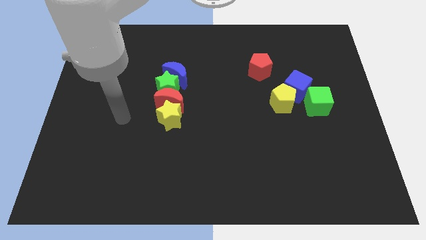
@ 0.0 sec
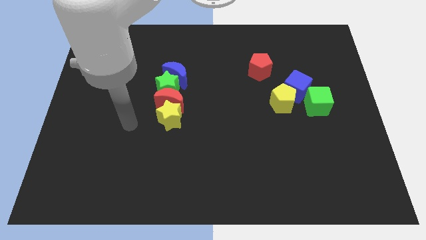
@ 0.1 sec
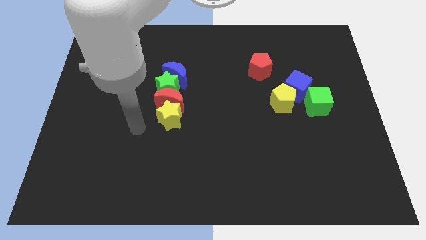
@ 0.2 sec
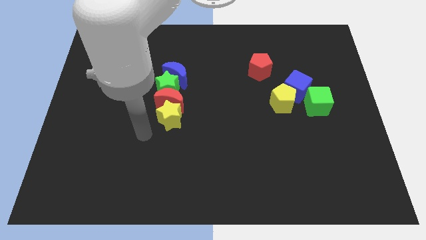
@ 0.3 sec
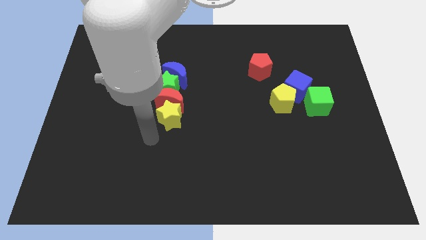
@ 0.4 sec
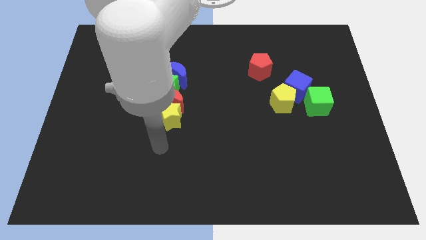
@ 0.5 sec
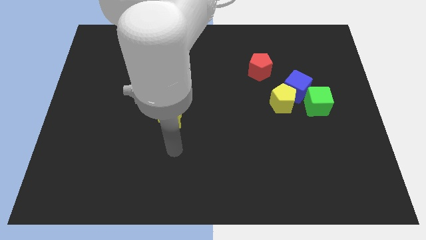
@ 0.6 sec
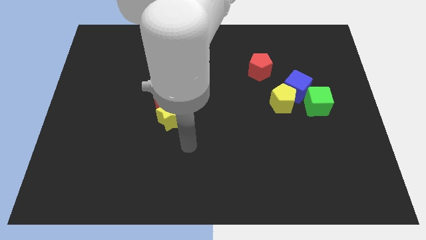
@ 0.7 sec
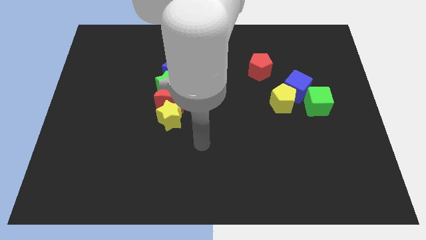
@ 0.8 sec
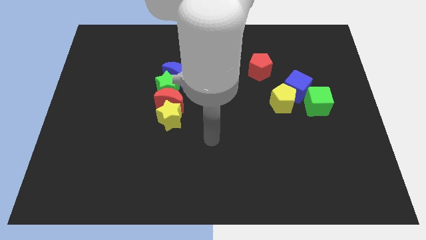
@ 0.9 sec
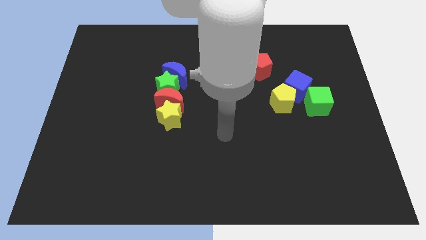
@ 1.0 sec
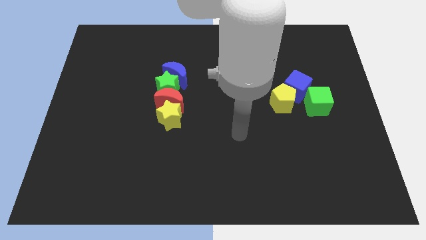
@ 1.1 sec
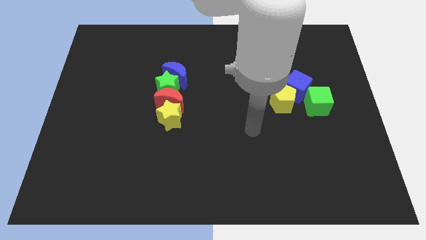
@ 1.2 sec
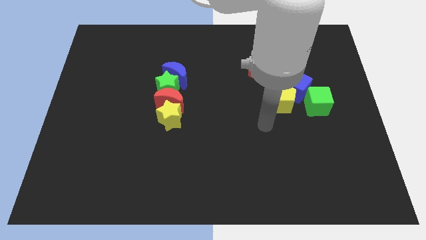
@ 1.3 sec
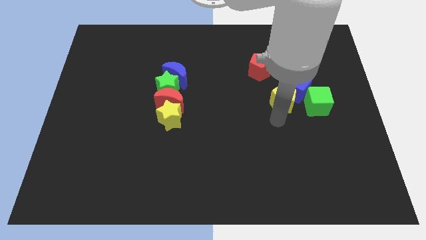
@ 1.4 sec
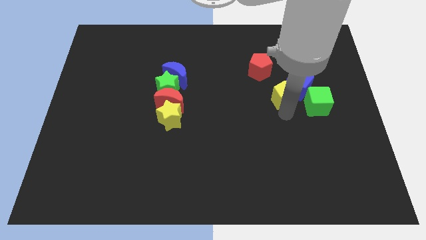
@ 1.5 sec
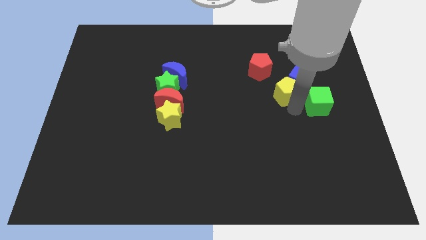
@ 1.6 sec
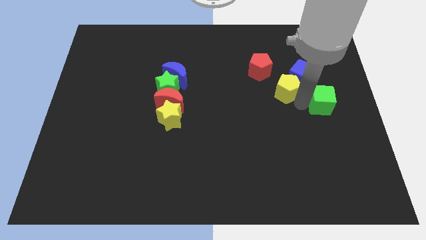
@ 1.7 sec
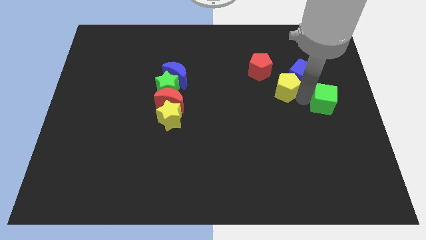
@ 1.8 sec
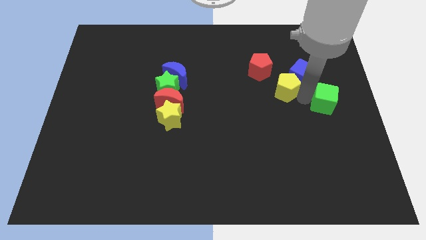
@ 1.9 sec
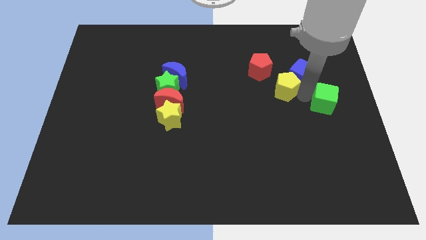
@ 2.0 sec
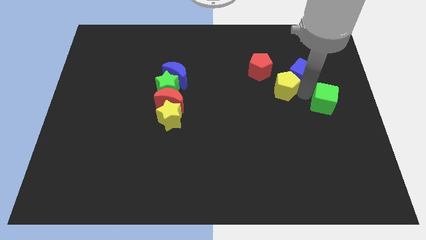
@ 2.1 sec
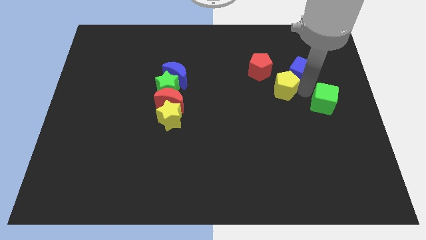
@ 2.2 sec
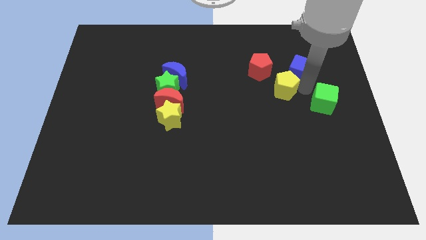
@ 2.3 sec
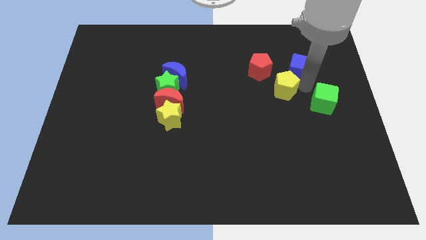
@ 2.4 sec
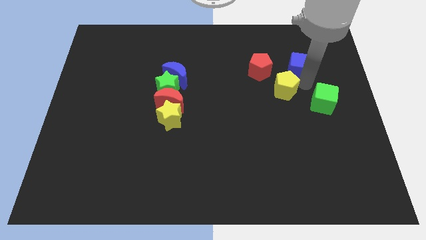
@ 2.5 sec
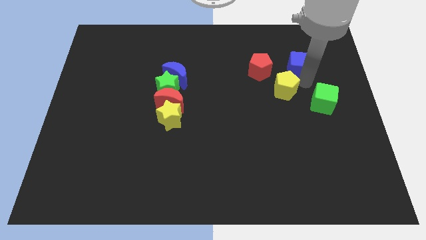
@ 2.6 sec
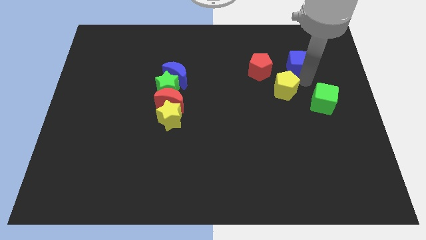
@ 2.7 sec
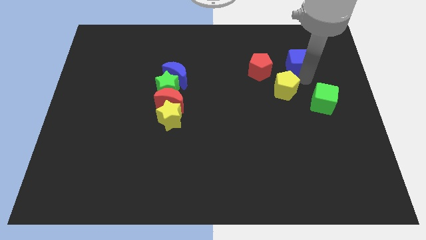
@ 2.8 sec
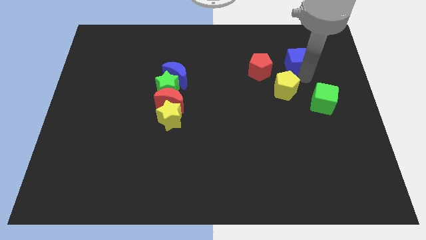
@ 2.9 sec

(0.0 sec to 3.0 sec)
move the blue cube away from the yellow pentagon and green cube

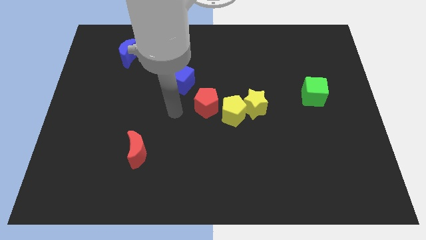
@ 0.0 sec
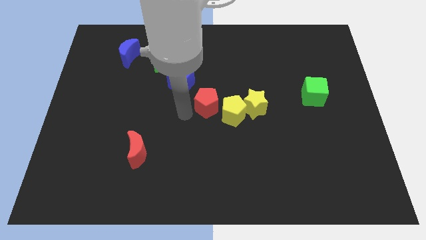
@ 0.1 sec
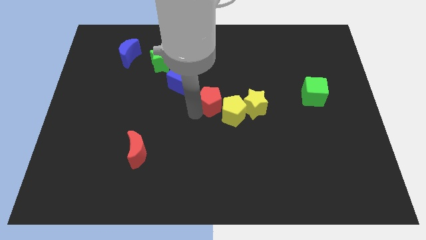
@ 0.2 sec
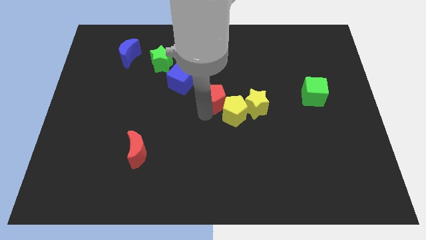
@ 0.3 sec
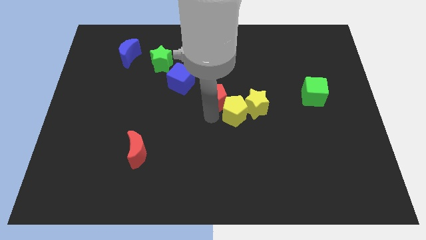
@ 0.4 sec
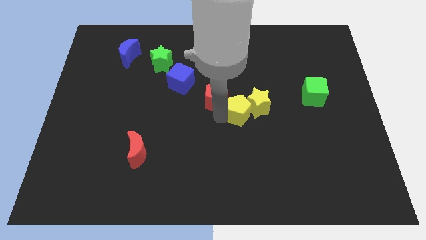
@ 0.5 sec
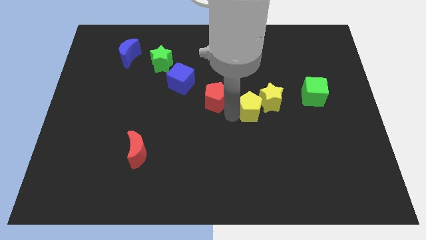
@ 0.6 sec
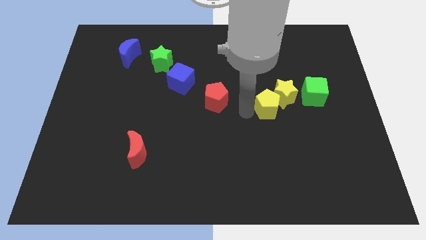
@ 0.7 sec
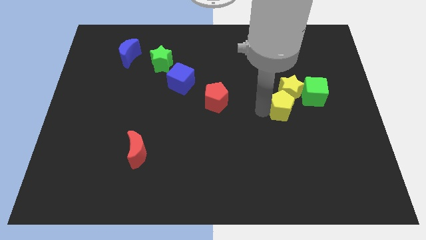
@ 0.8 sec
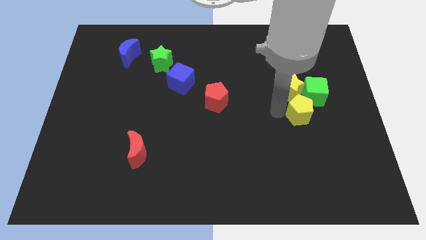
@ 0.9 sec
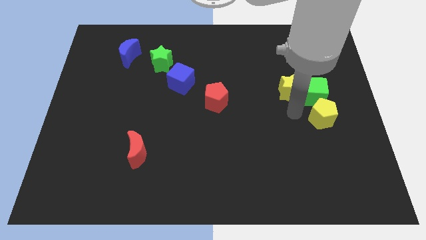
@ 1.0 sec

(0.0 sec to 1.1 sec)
separate the yellow star from the yellow pentagon

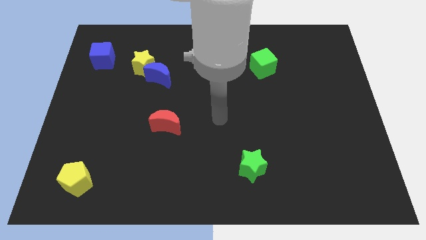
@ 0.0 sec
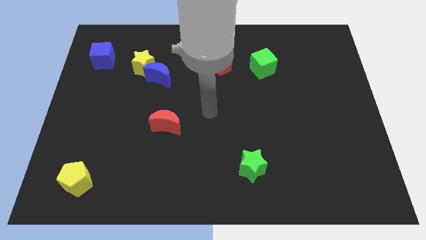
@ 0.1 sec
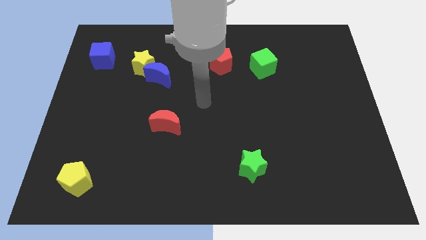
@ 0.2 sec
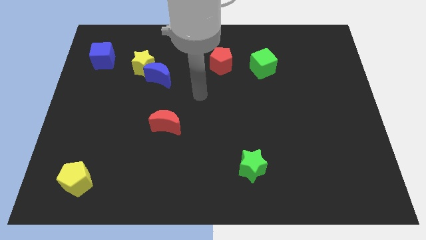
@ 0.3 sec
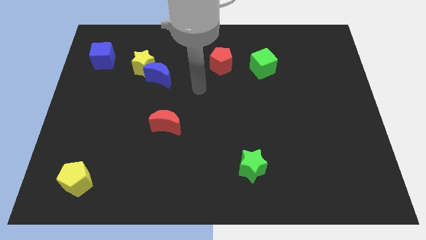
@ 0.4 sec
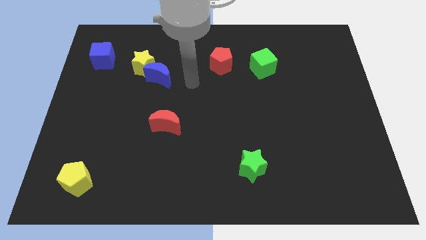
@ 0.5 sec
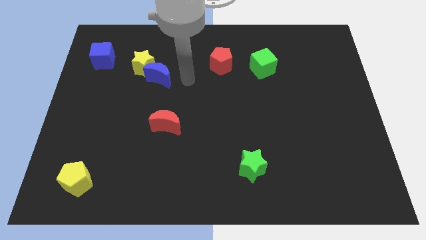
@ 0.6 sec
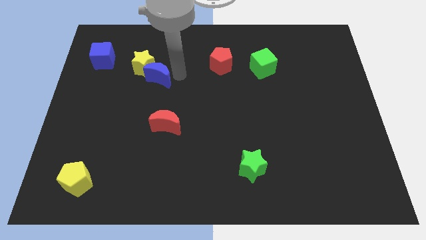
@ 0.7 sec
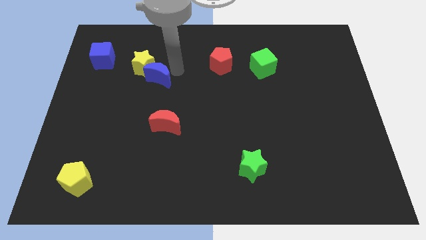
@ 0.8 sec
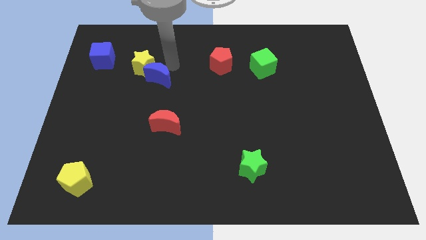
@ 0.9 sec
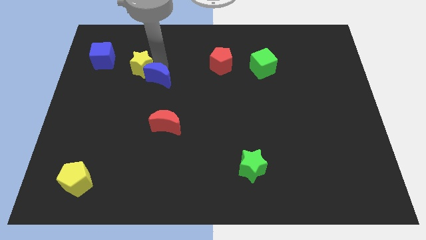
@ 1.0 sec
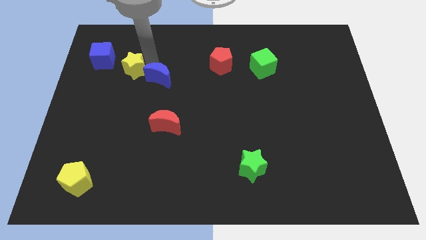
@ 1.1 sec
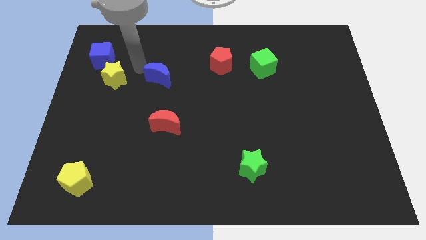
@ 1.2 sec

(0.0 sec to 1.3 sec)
separate the blue moon from the yellow star

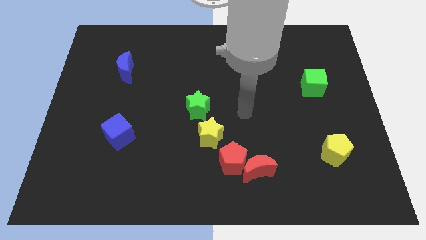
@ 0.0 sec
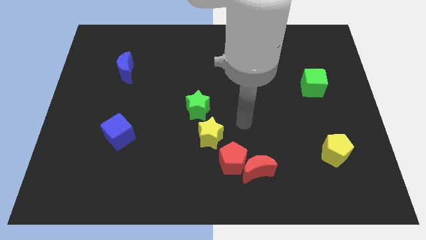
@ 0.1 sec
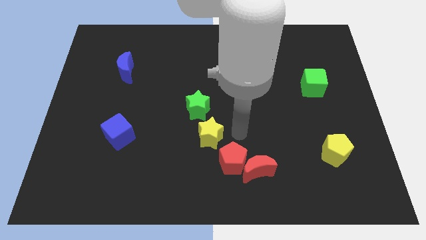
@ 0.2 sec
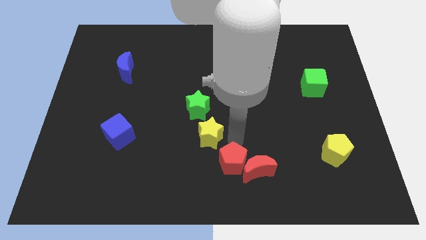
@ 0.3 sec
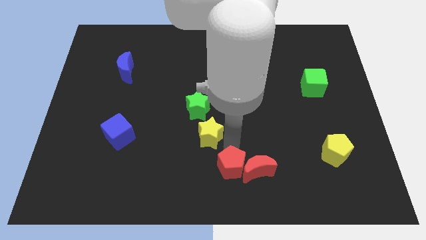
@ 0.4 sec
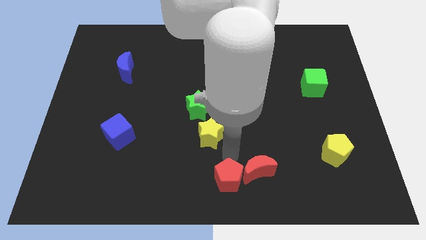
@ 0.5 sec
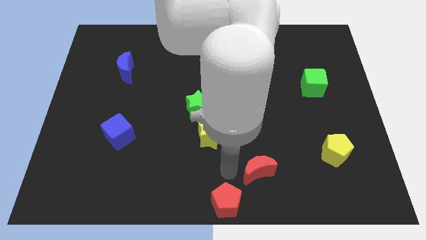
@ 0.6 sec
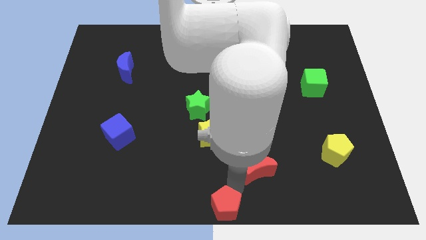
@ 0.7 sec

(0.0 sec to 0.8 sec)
move the red moon away from the red pentagon

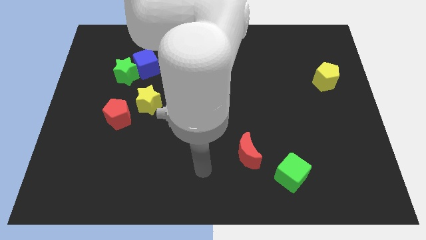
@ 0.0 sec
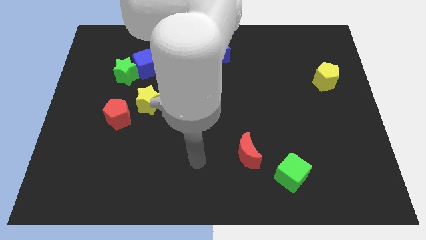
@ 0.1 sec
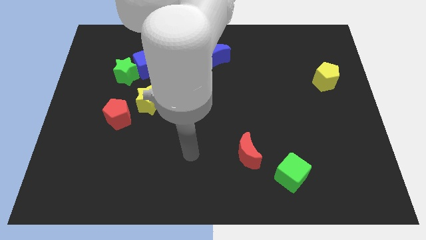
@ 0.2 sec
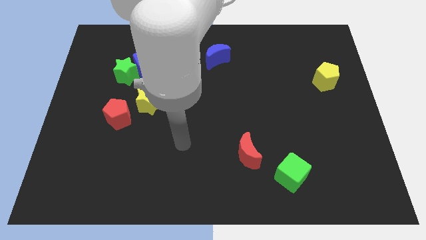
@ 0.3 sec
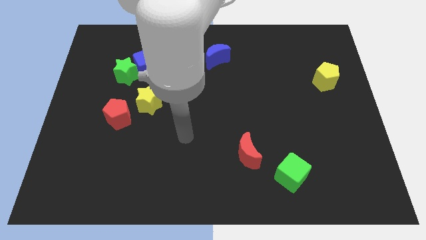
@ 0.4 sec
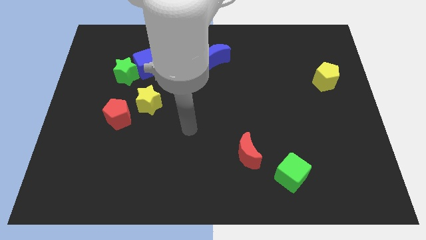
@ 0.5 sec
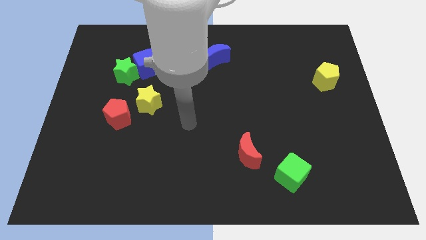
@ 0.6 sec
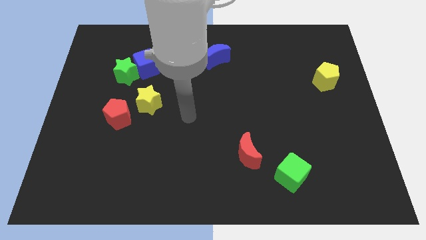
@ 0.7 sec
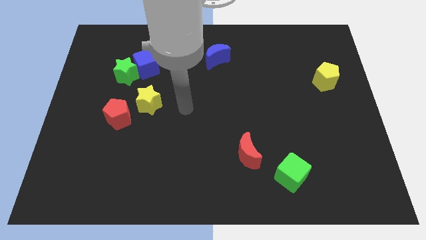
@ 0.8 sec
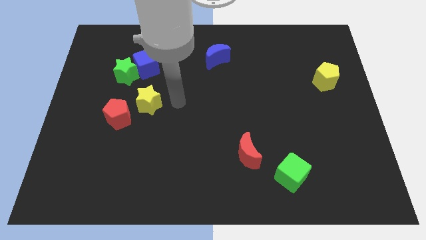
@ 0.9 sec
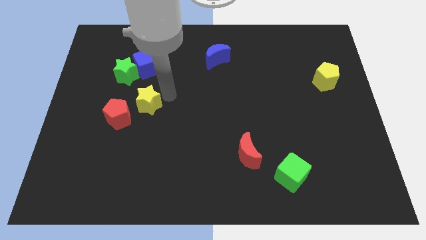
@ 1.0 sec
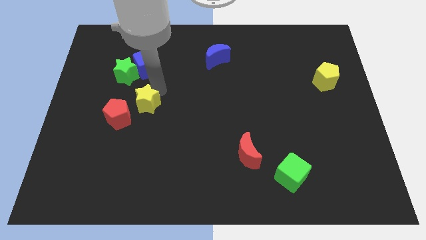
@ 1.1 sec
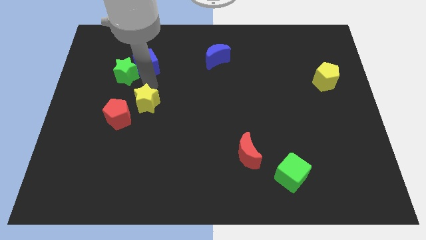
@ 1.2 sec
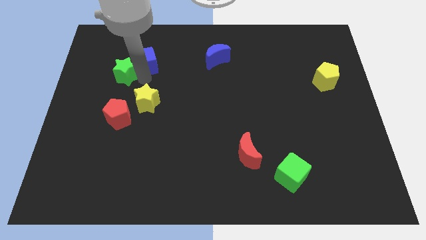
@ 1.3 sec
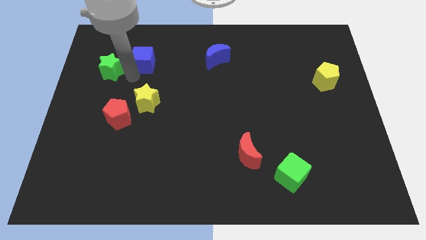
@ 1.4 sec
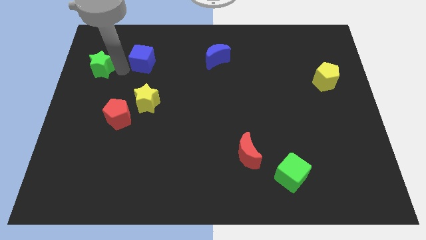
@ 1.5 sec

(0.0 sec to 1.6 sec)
separate the blue cube from the green star

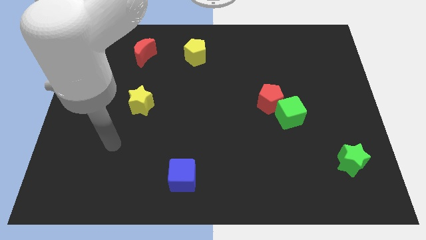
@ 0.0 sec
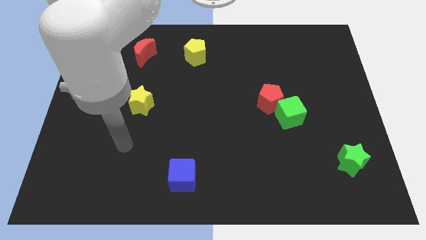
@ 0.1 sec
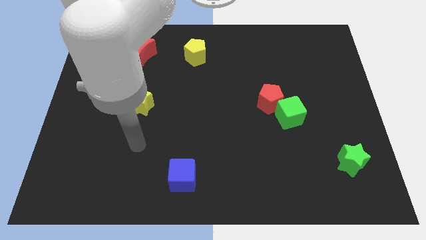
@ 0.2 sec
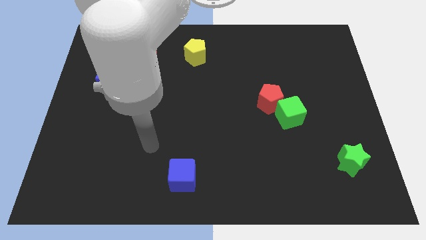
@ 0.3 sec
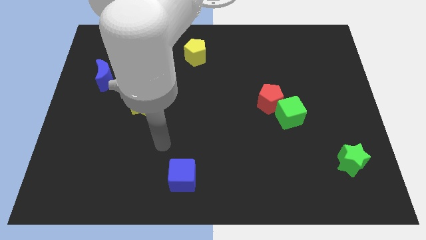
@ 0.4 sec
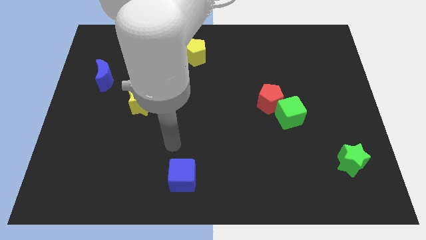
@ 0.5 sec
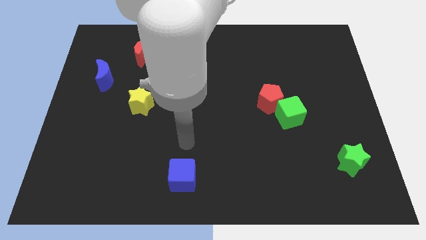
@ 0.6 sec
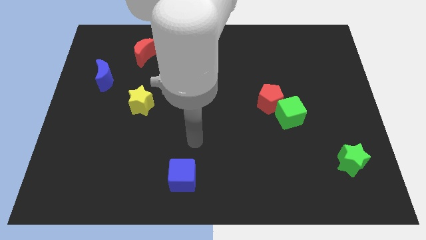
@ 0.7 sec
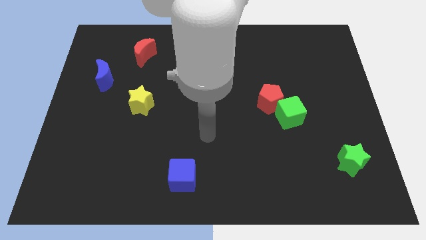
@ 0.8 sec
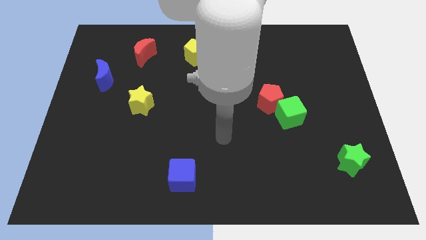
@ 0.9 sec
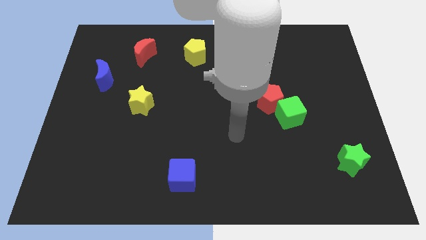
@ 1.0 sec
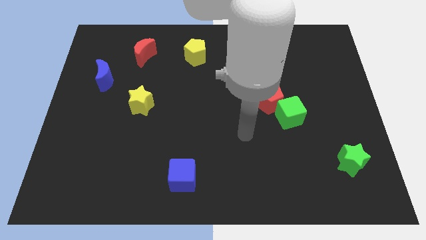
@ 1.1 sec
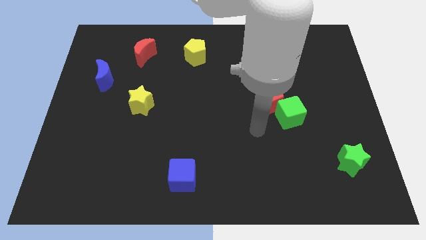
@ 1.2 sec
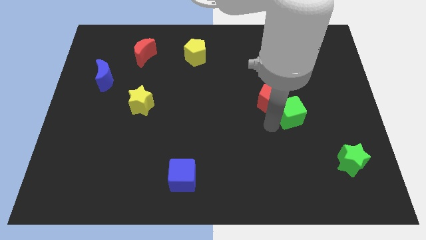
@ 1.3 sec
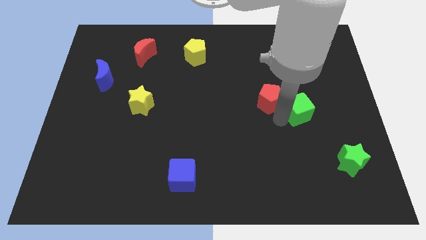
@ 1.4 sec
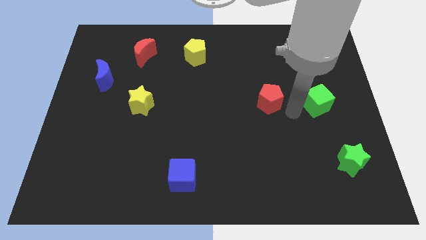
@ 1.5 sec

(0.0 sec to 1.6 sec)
move the red pentagon away from the green cube
